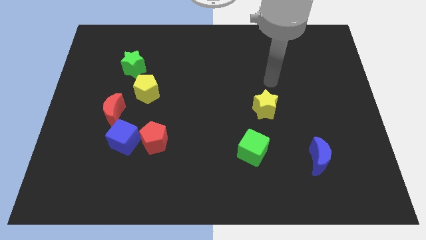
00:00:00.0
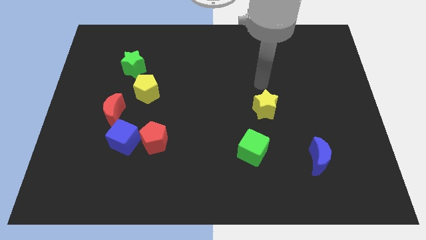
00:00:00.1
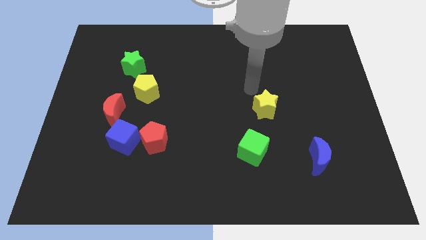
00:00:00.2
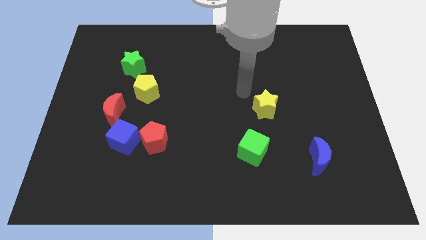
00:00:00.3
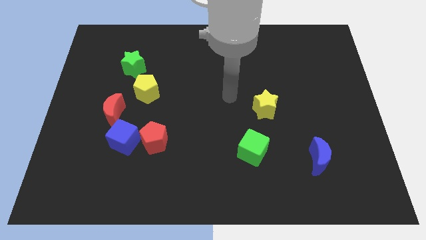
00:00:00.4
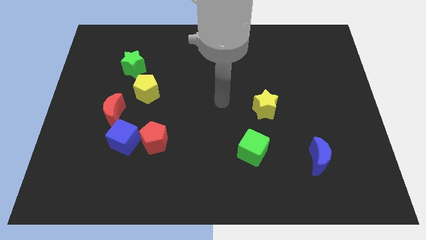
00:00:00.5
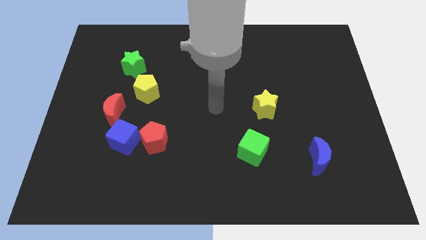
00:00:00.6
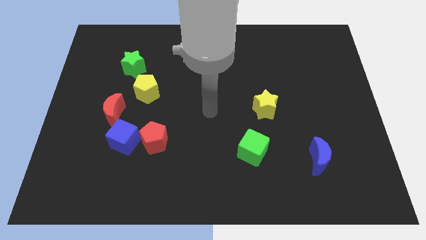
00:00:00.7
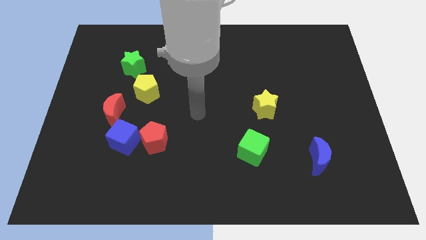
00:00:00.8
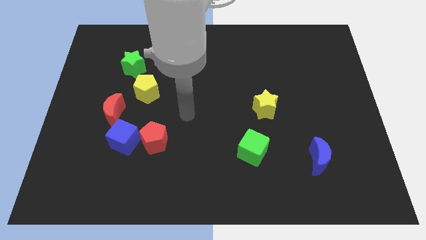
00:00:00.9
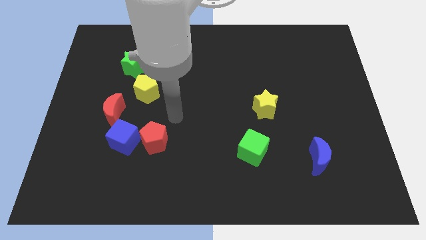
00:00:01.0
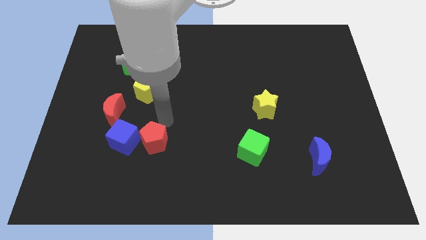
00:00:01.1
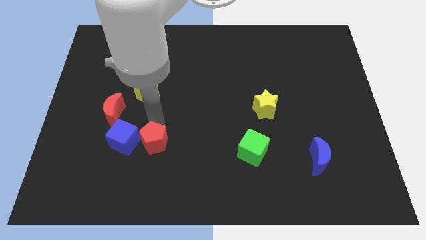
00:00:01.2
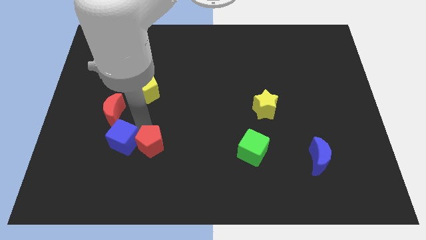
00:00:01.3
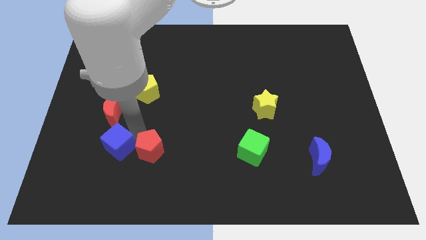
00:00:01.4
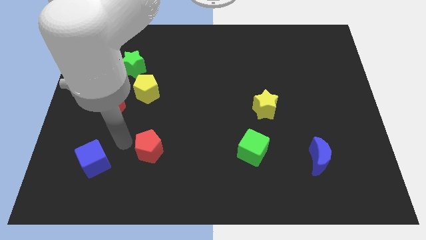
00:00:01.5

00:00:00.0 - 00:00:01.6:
separate the red pentagon from the blue cube

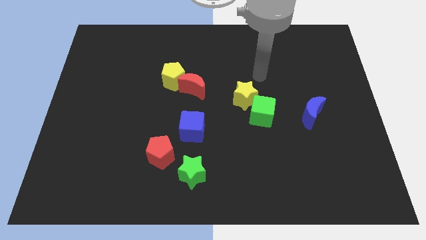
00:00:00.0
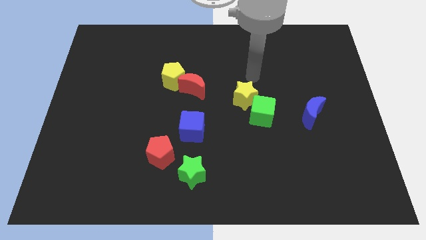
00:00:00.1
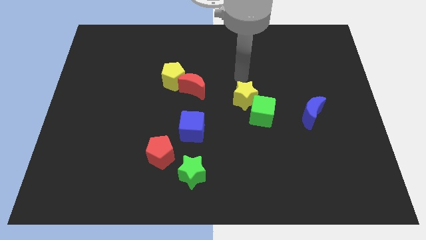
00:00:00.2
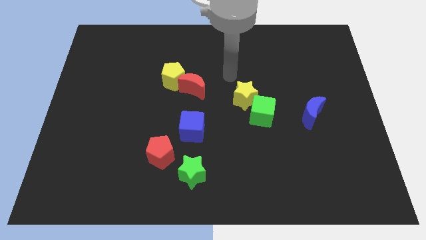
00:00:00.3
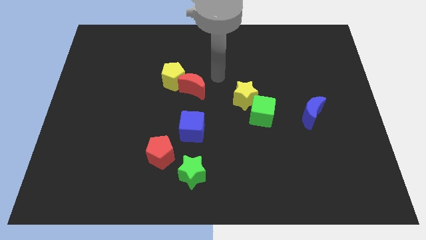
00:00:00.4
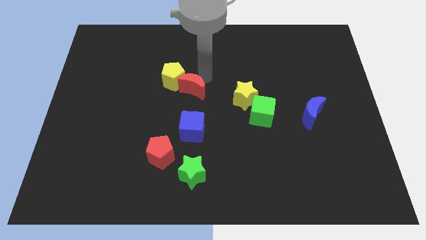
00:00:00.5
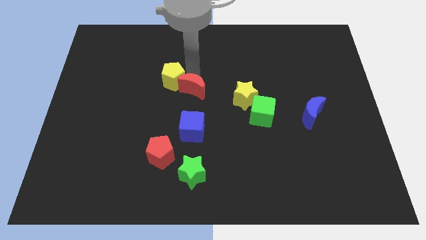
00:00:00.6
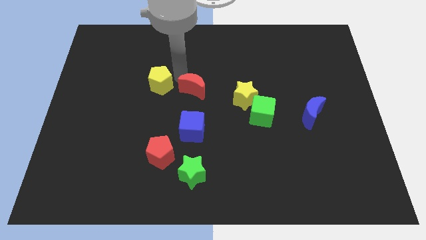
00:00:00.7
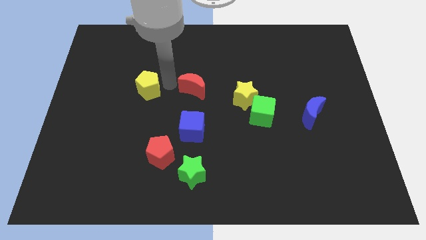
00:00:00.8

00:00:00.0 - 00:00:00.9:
separate the red moon from the yellow pentagon

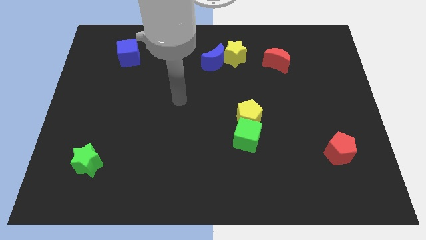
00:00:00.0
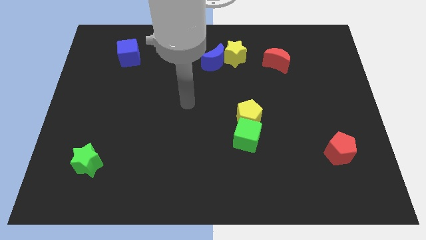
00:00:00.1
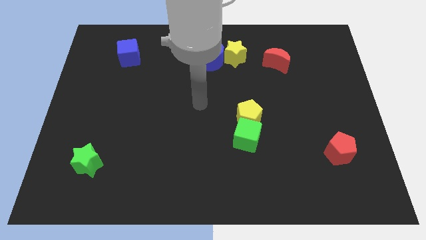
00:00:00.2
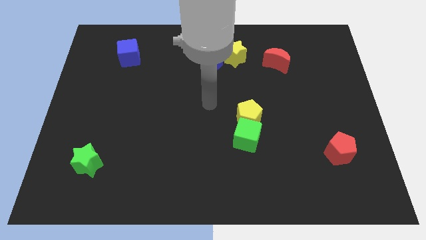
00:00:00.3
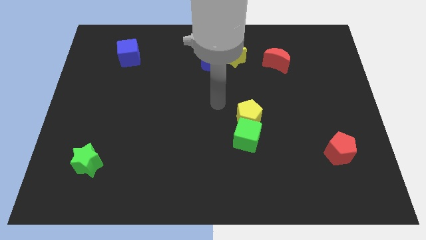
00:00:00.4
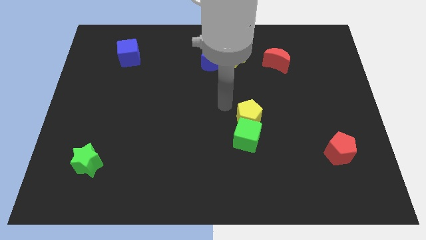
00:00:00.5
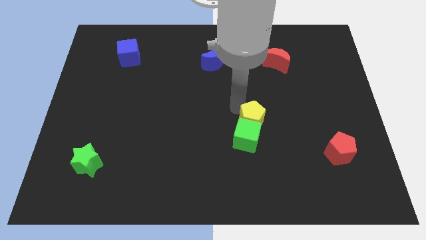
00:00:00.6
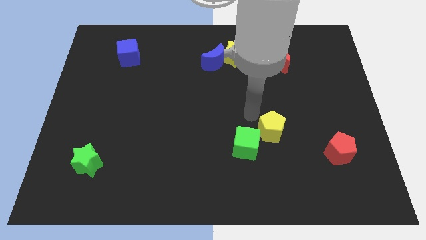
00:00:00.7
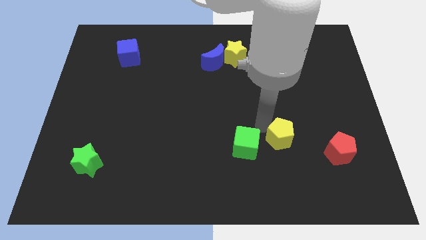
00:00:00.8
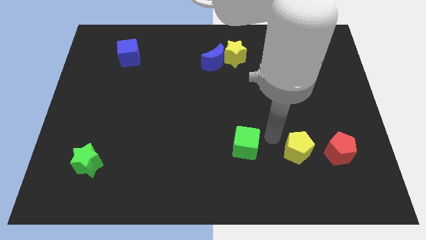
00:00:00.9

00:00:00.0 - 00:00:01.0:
separate the green cube from the yellow pentagon

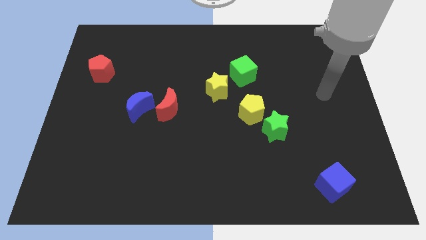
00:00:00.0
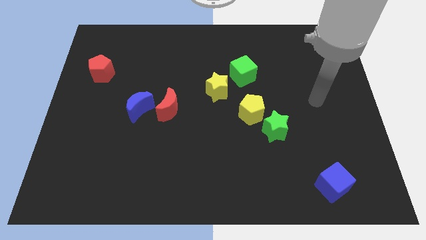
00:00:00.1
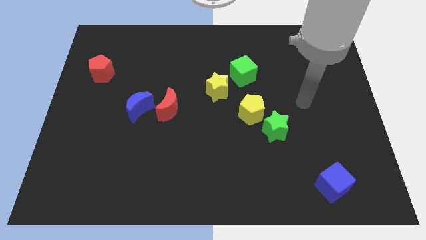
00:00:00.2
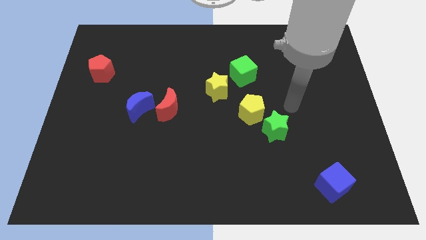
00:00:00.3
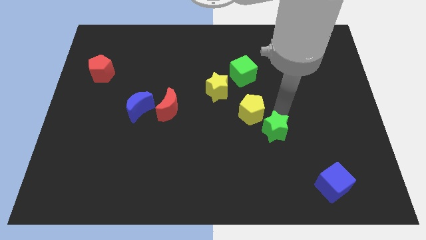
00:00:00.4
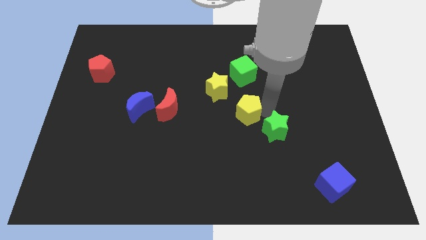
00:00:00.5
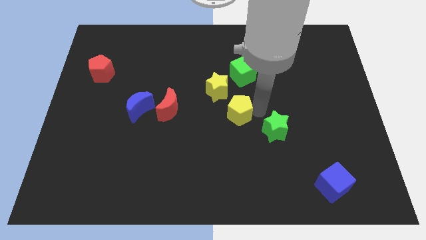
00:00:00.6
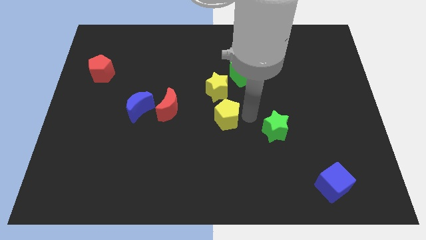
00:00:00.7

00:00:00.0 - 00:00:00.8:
move the green star away from the yellow pentagon

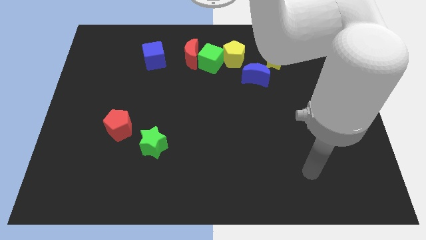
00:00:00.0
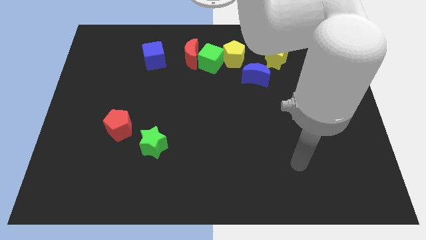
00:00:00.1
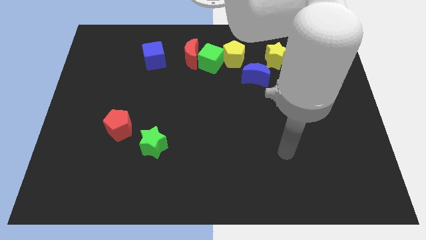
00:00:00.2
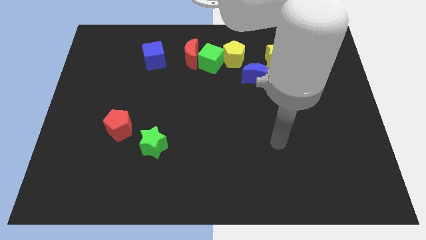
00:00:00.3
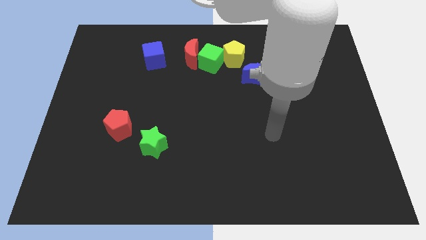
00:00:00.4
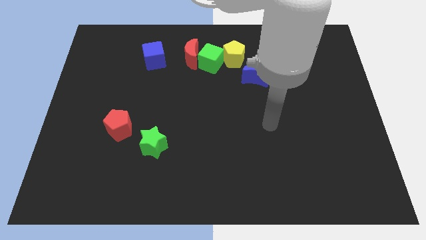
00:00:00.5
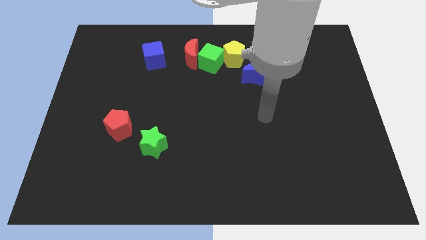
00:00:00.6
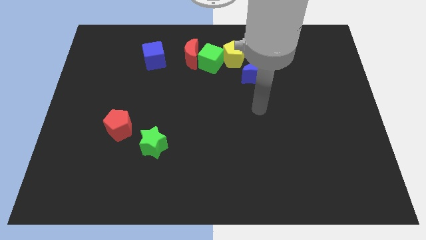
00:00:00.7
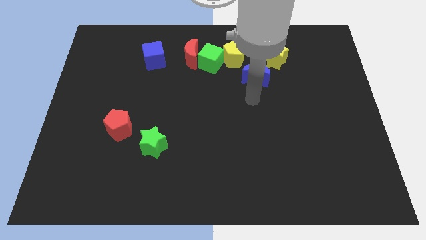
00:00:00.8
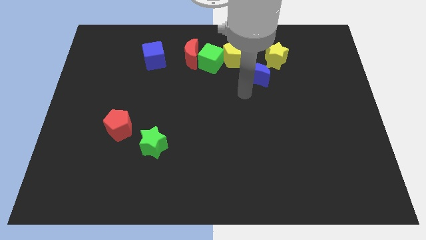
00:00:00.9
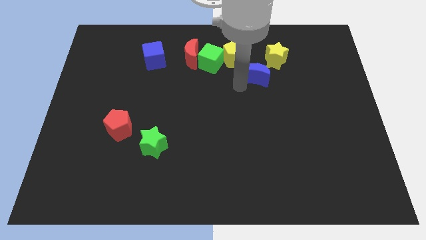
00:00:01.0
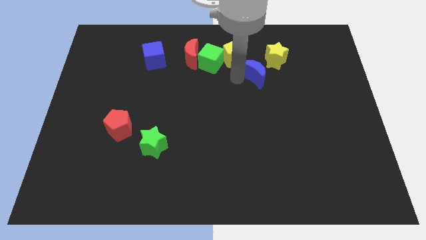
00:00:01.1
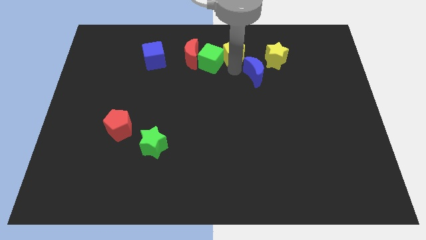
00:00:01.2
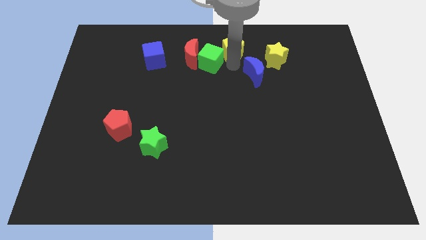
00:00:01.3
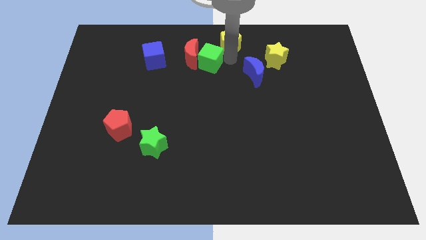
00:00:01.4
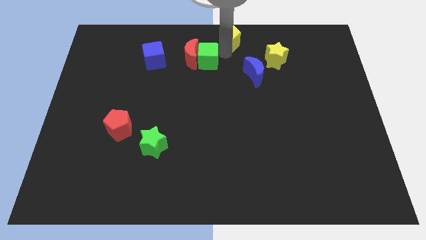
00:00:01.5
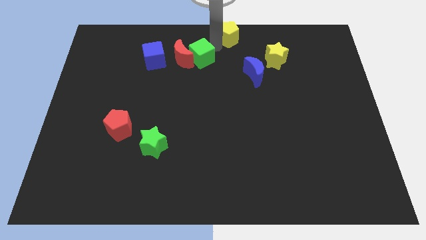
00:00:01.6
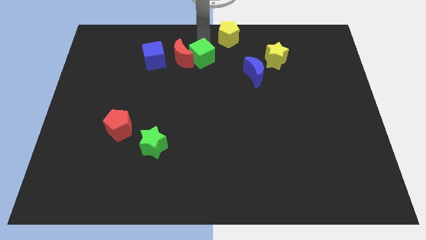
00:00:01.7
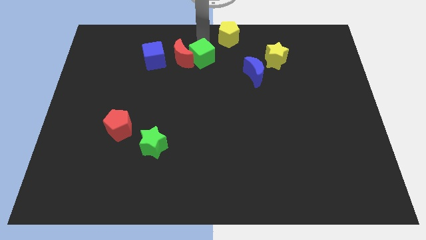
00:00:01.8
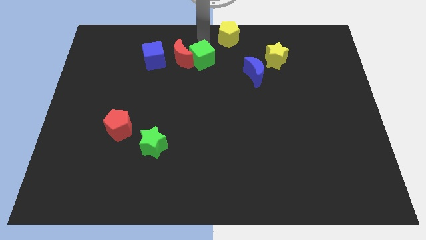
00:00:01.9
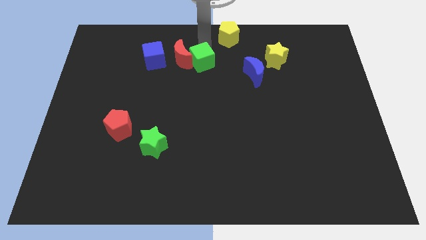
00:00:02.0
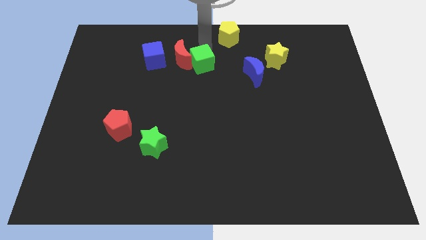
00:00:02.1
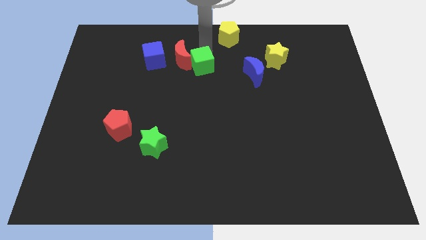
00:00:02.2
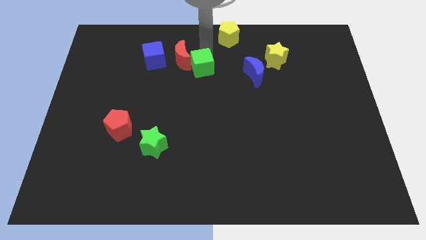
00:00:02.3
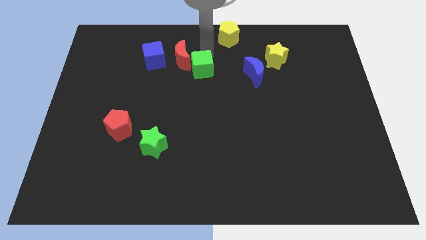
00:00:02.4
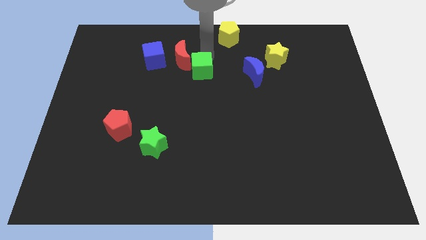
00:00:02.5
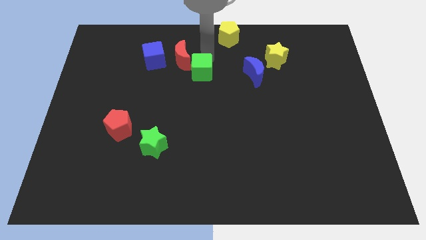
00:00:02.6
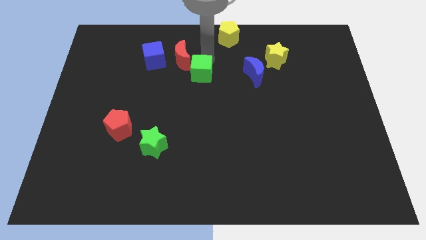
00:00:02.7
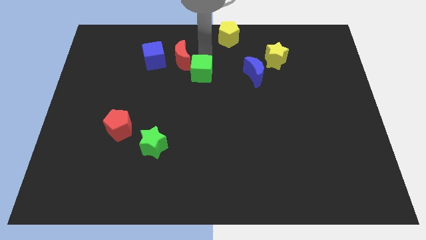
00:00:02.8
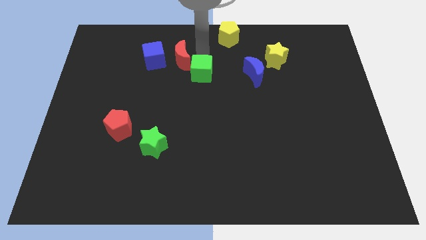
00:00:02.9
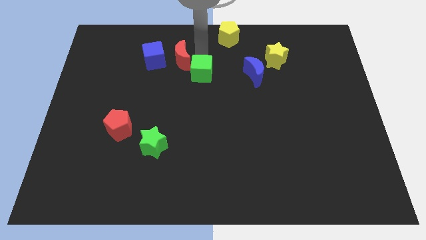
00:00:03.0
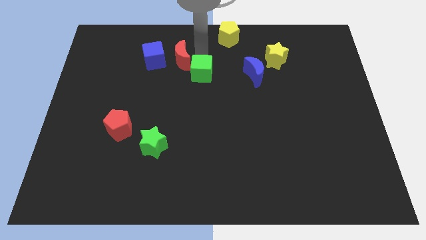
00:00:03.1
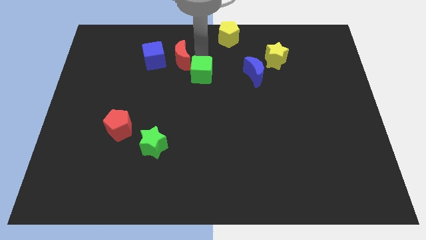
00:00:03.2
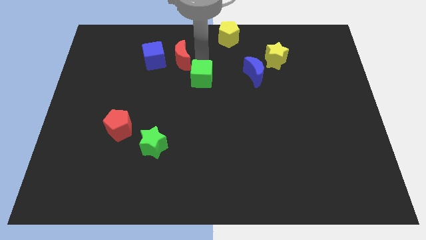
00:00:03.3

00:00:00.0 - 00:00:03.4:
pull the green cube apart from the red moon and yellow pentagon

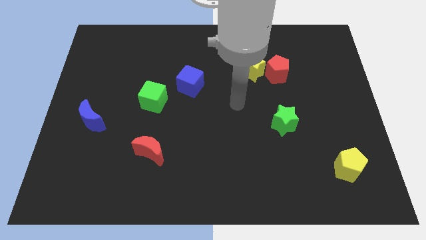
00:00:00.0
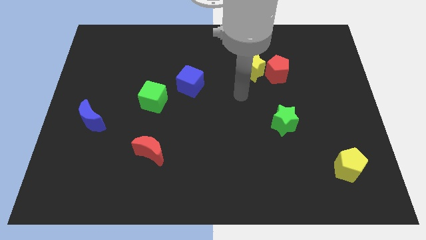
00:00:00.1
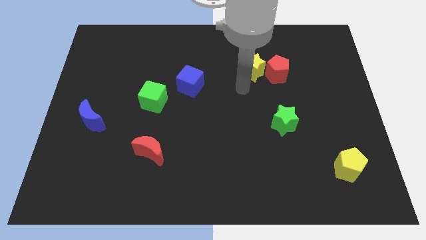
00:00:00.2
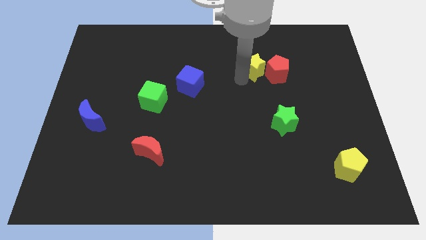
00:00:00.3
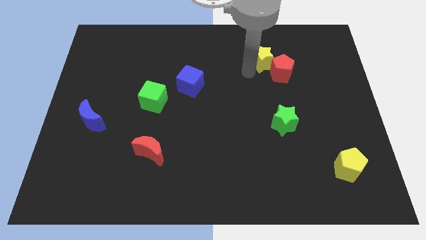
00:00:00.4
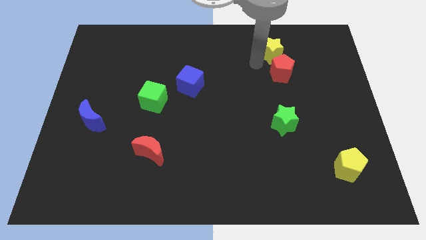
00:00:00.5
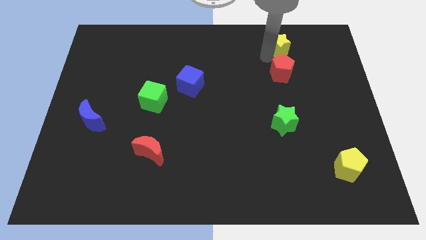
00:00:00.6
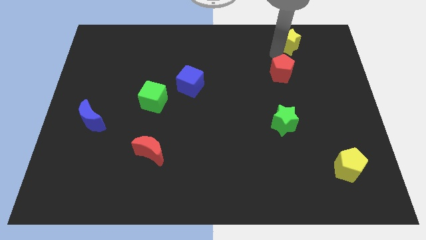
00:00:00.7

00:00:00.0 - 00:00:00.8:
separate the red pentagon from the yellow star

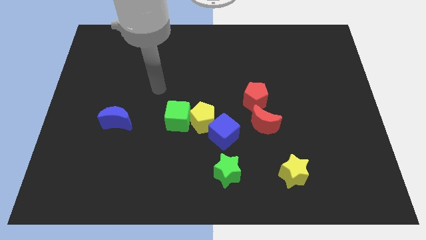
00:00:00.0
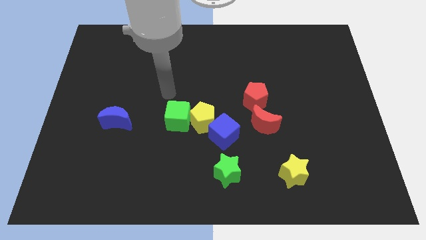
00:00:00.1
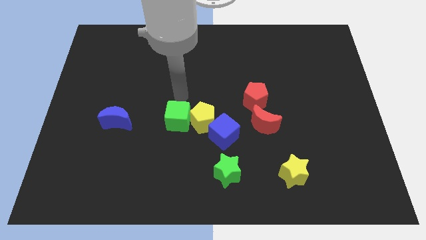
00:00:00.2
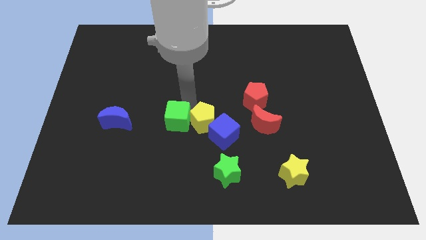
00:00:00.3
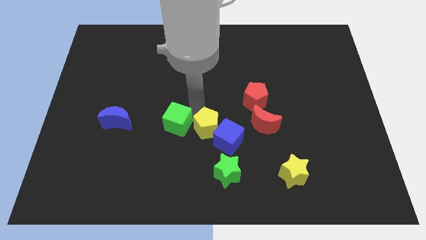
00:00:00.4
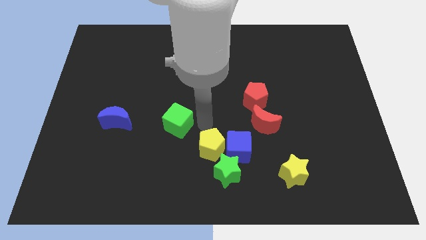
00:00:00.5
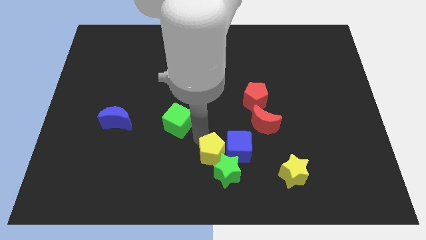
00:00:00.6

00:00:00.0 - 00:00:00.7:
move the green cube away from the yellow pentagon
